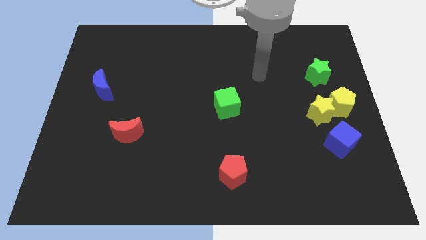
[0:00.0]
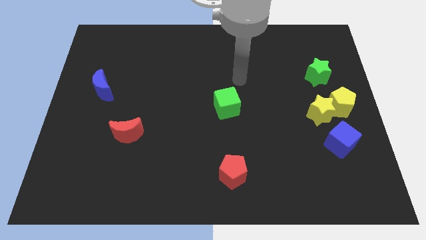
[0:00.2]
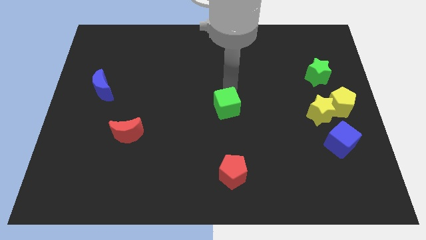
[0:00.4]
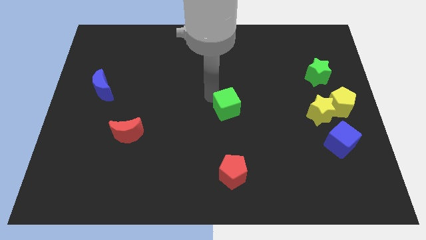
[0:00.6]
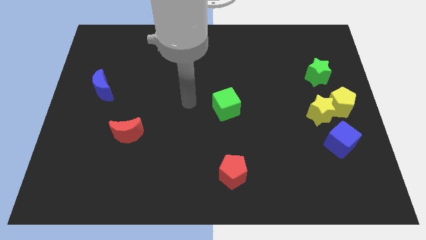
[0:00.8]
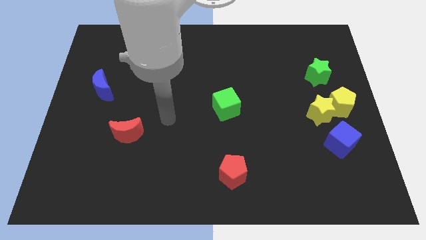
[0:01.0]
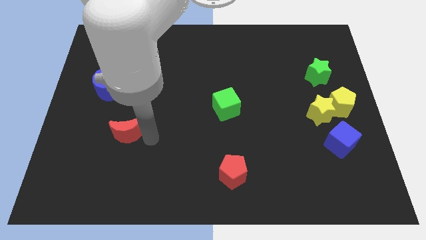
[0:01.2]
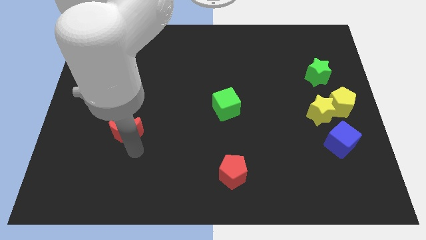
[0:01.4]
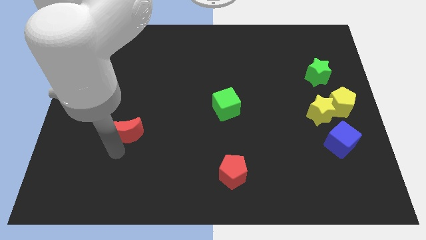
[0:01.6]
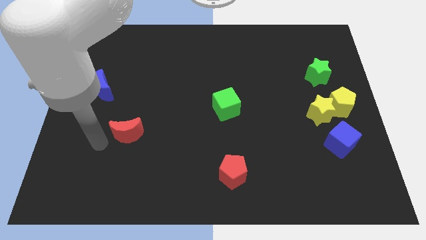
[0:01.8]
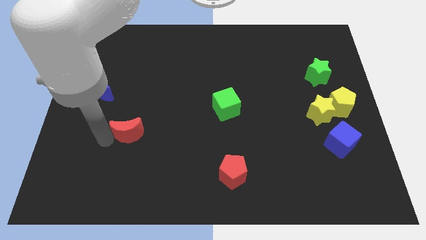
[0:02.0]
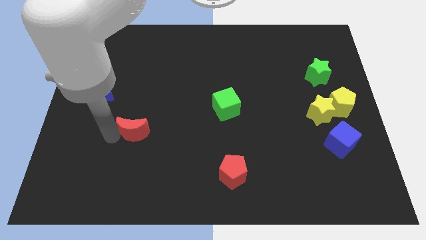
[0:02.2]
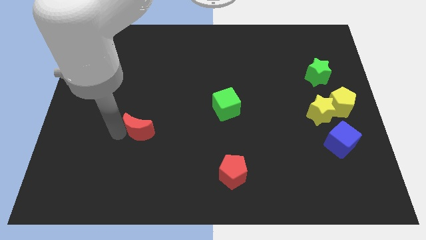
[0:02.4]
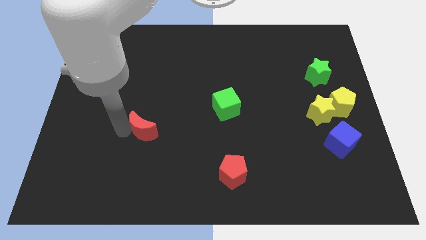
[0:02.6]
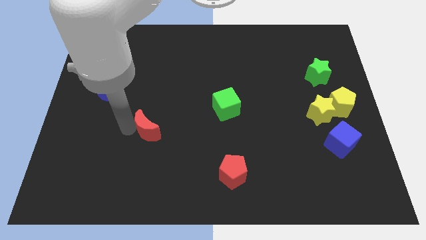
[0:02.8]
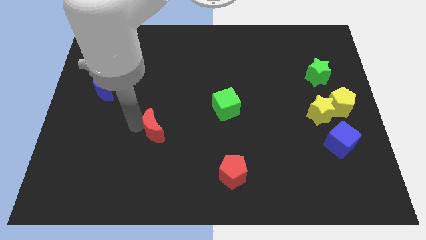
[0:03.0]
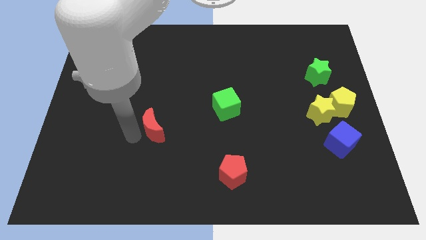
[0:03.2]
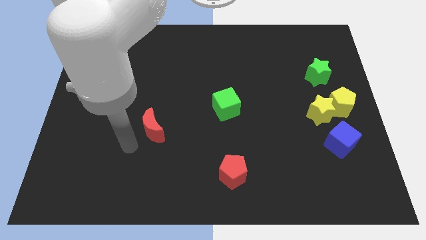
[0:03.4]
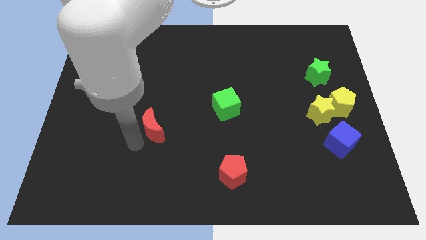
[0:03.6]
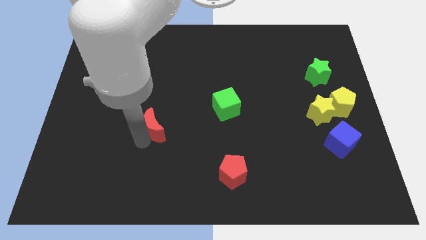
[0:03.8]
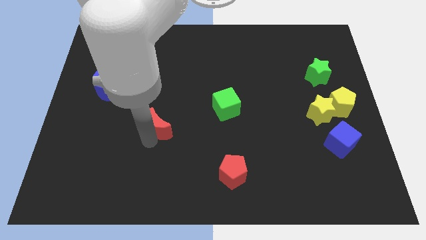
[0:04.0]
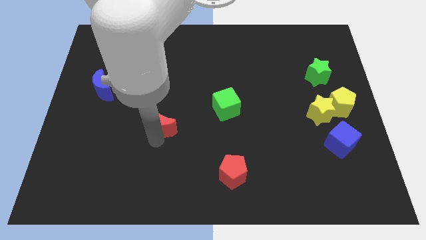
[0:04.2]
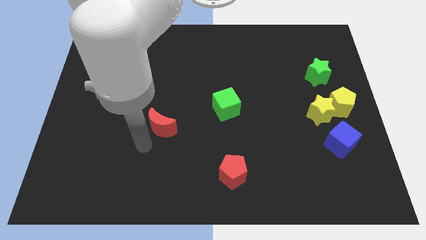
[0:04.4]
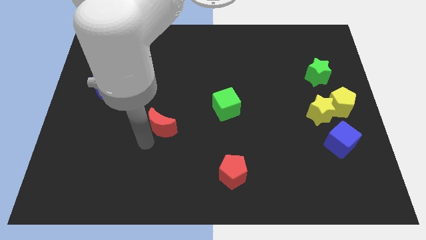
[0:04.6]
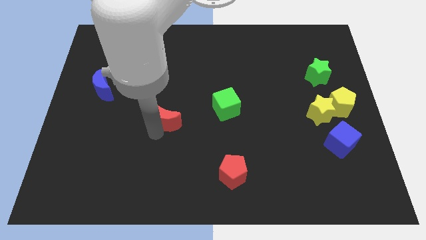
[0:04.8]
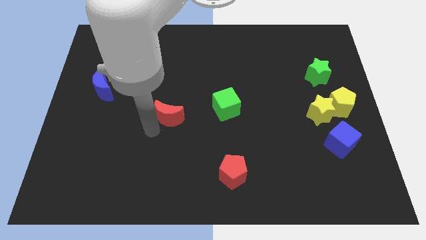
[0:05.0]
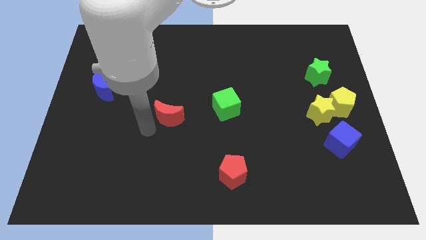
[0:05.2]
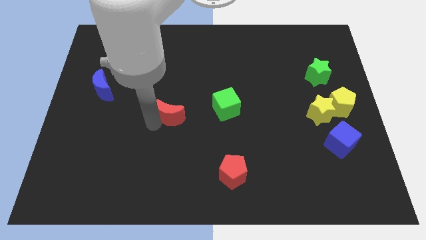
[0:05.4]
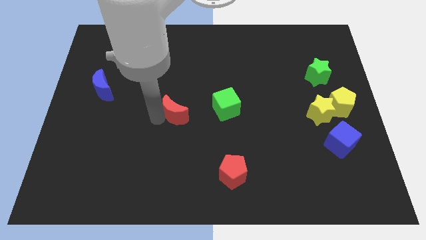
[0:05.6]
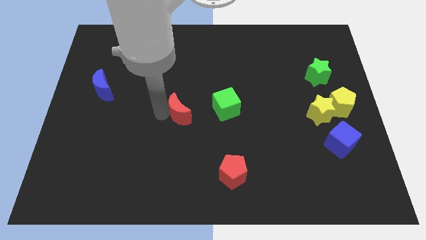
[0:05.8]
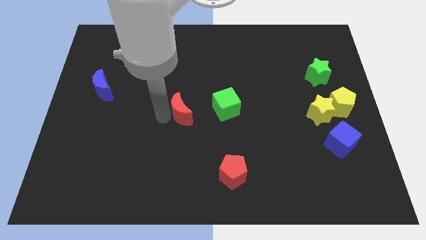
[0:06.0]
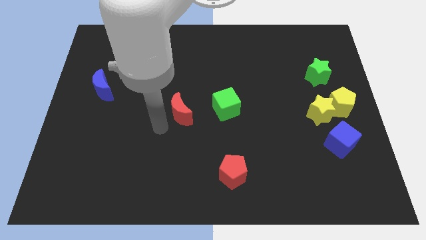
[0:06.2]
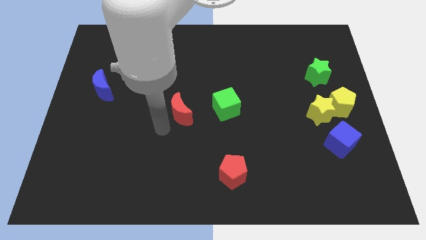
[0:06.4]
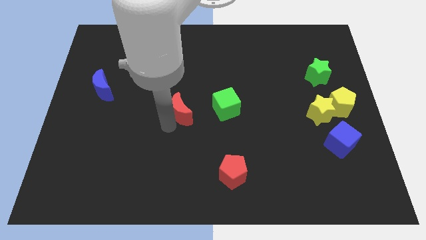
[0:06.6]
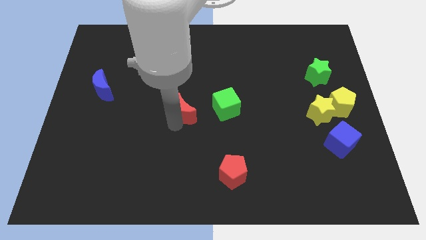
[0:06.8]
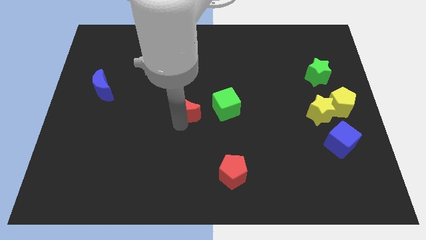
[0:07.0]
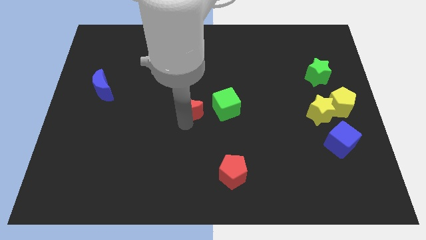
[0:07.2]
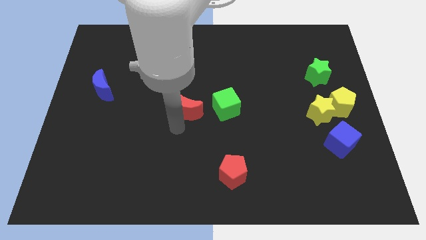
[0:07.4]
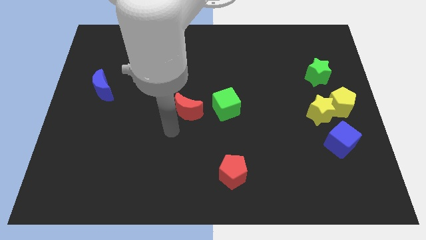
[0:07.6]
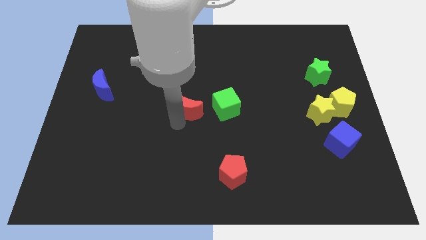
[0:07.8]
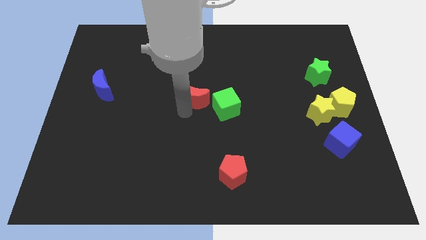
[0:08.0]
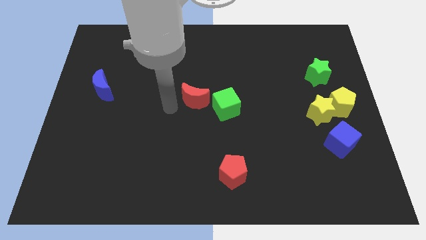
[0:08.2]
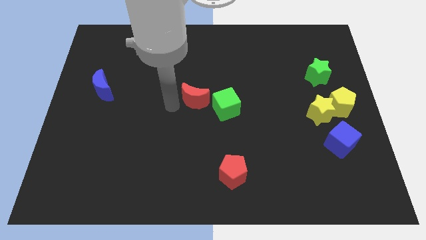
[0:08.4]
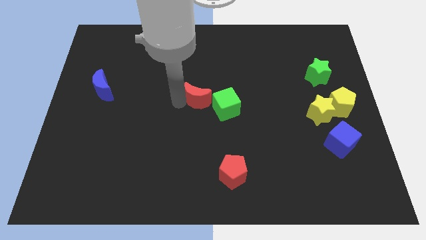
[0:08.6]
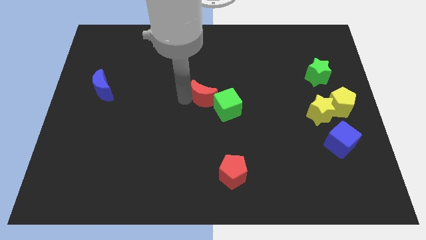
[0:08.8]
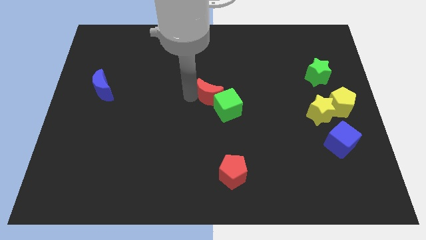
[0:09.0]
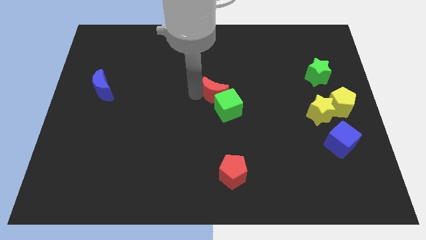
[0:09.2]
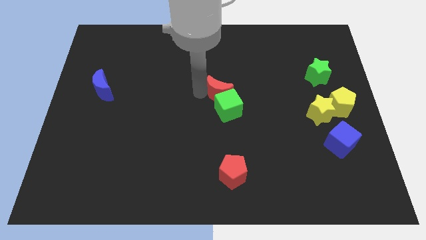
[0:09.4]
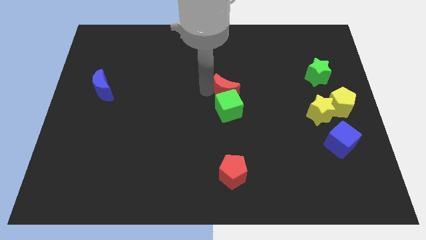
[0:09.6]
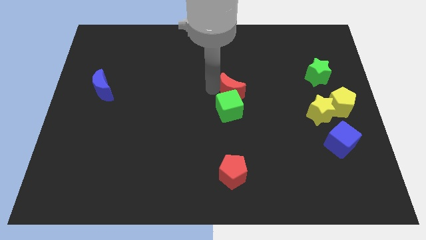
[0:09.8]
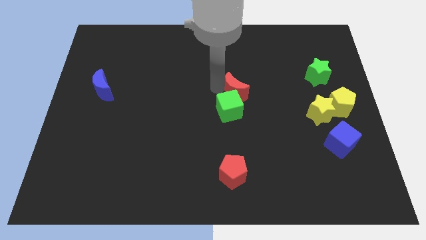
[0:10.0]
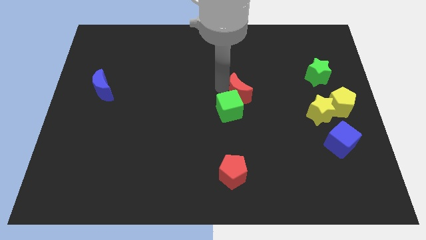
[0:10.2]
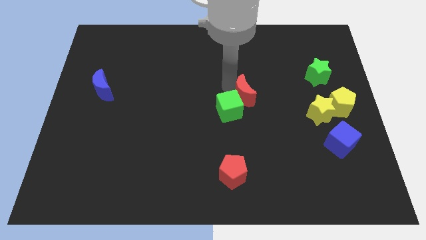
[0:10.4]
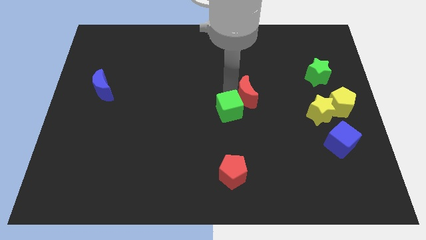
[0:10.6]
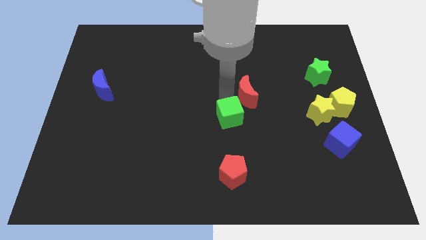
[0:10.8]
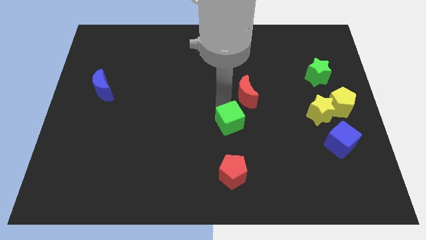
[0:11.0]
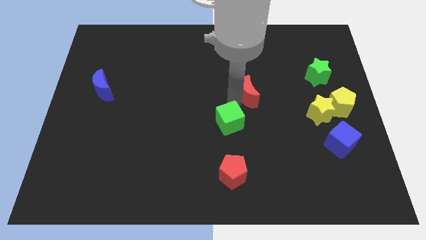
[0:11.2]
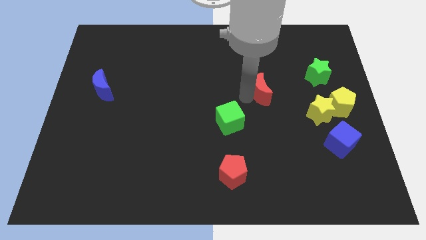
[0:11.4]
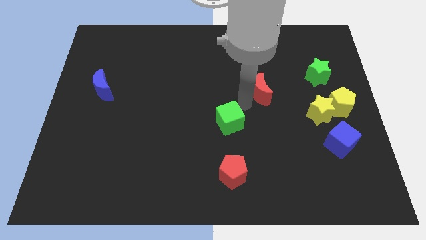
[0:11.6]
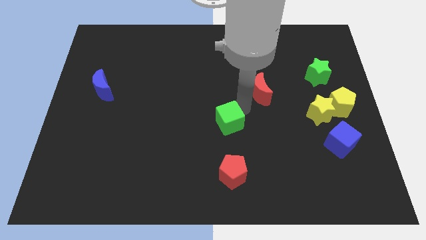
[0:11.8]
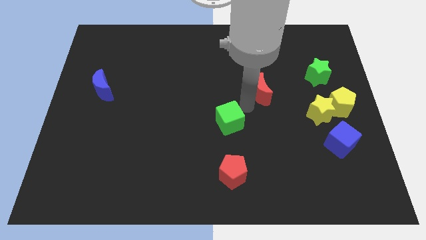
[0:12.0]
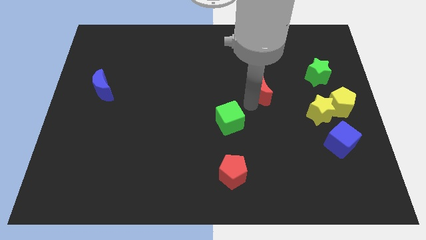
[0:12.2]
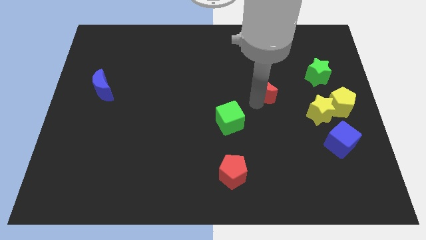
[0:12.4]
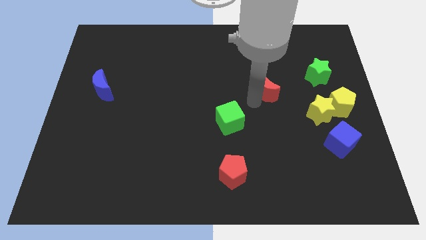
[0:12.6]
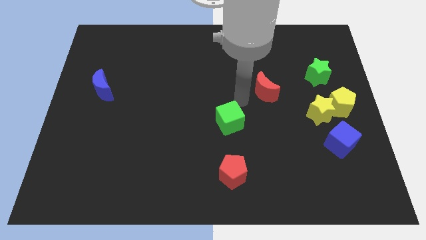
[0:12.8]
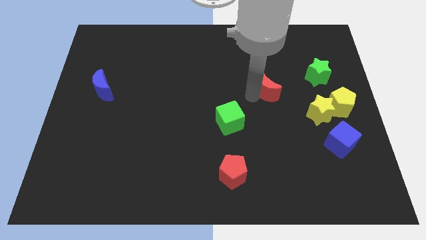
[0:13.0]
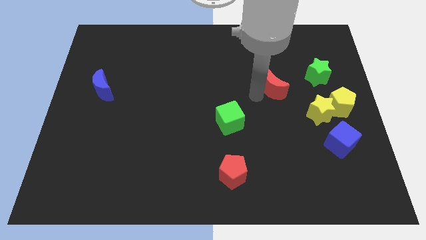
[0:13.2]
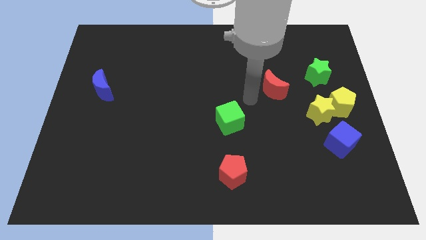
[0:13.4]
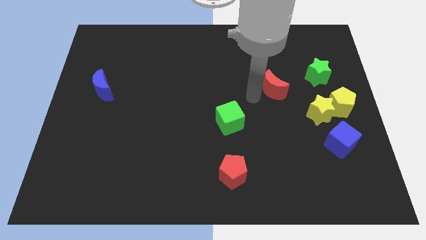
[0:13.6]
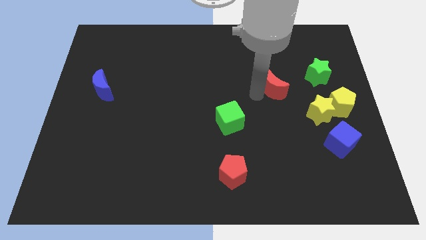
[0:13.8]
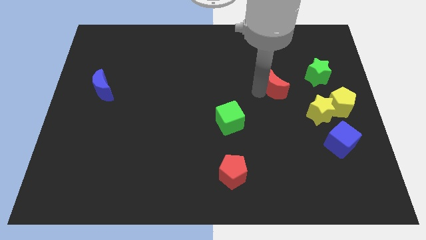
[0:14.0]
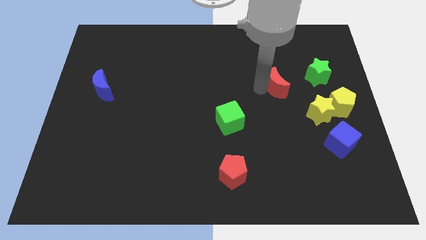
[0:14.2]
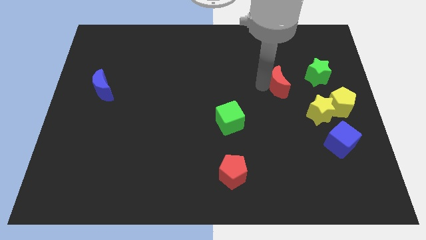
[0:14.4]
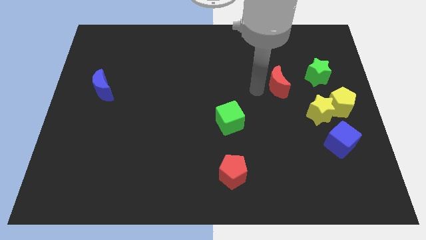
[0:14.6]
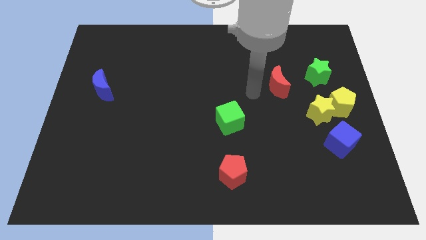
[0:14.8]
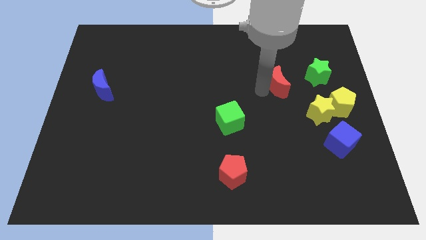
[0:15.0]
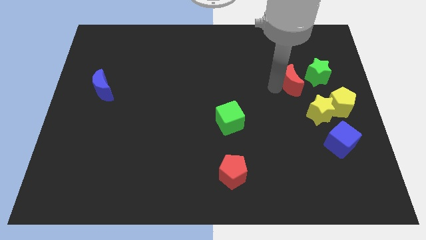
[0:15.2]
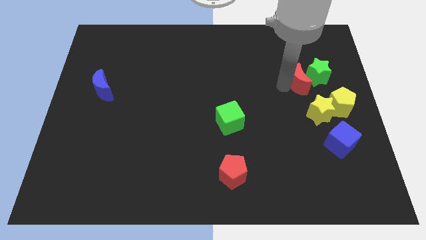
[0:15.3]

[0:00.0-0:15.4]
put the red moon close to the green star

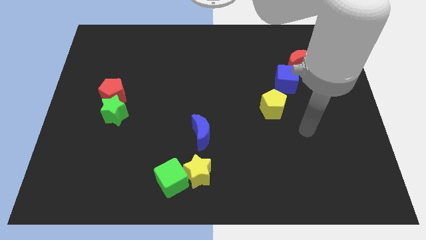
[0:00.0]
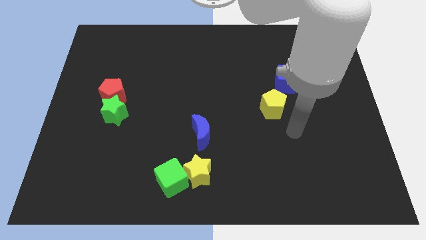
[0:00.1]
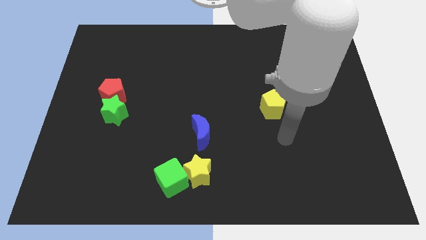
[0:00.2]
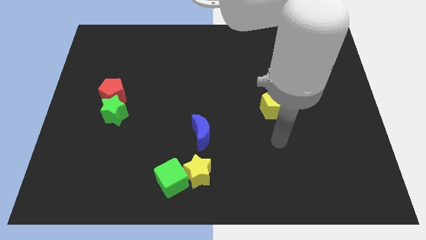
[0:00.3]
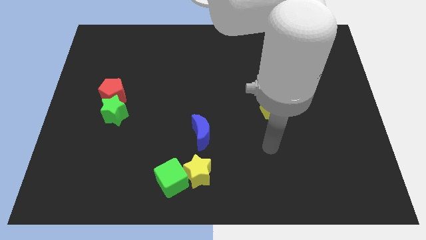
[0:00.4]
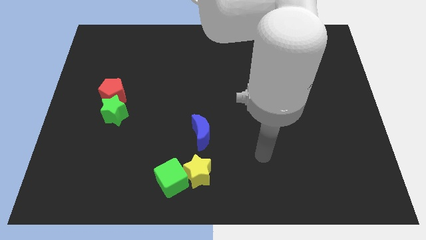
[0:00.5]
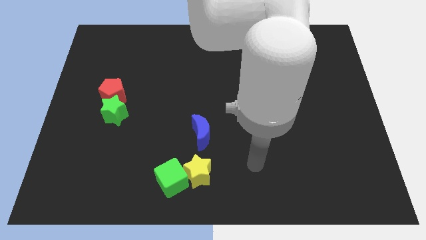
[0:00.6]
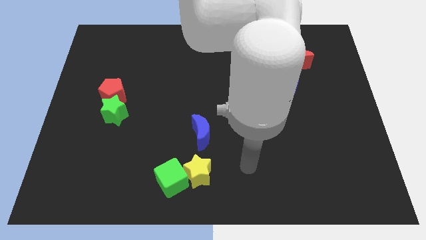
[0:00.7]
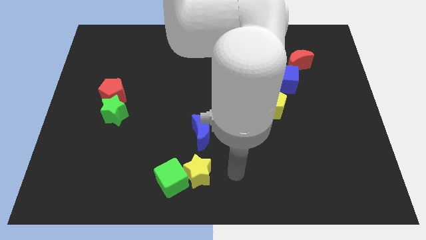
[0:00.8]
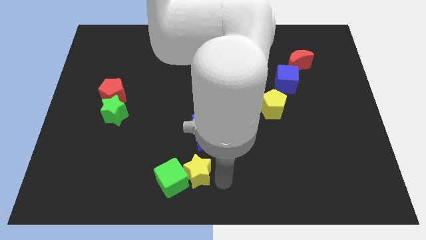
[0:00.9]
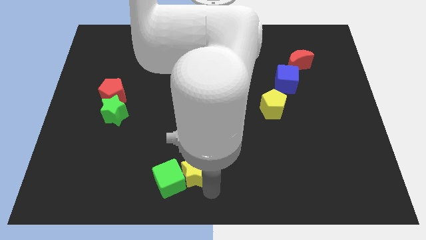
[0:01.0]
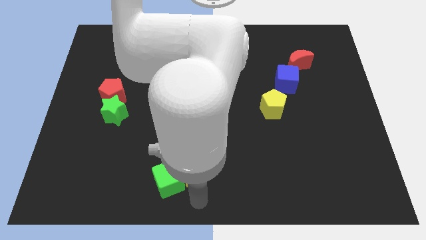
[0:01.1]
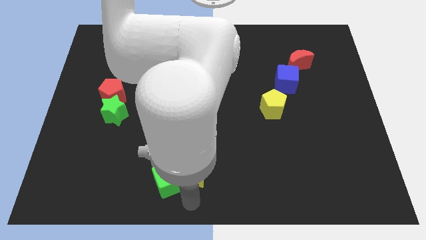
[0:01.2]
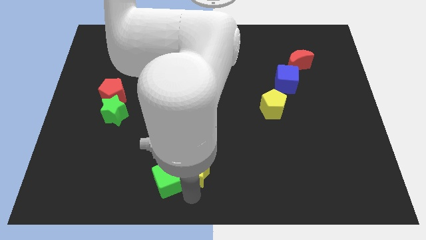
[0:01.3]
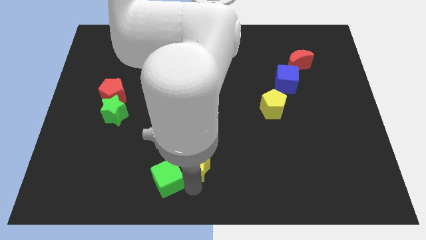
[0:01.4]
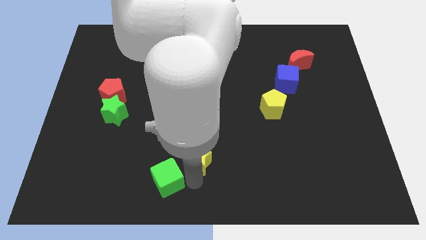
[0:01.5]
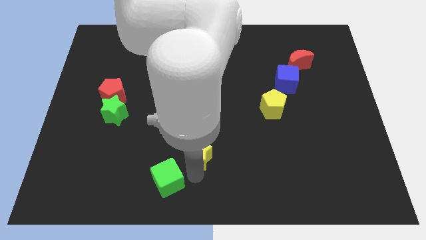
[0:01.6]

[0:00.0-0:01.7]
push the yellow star to the blue moon
